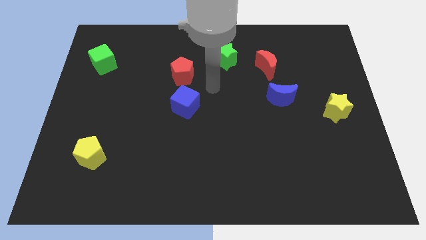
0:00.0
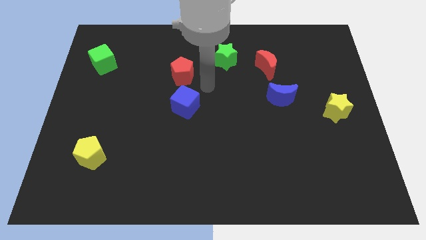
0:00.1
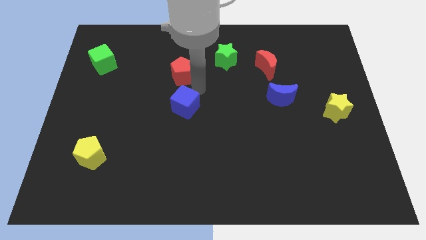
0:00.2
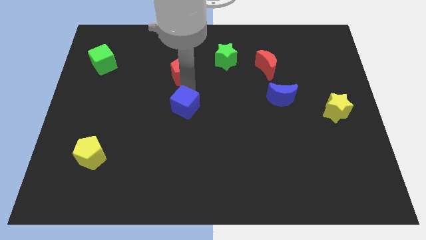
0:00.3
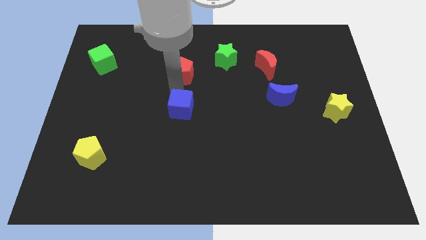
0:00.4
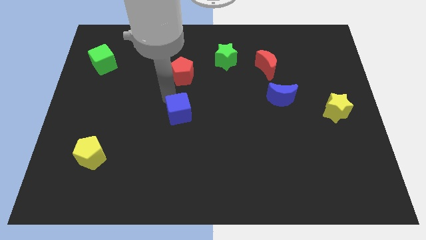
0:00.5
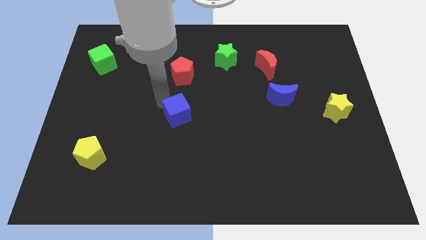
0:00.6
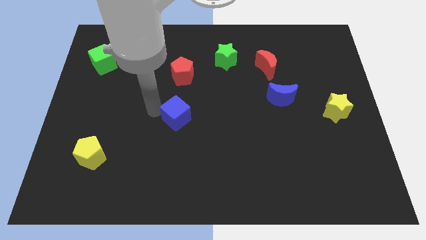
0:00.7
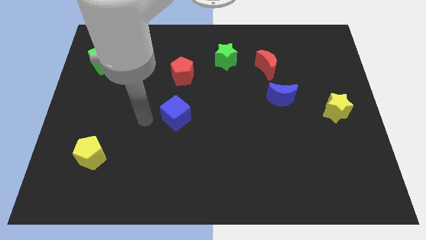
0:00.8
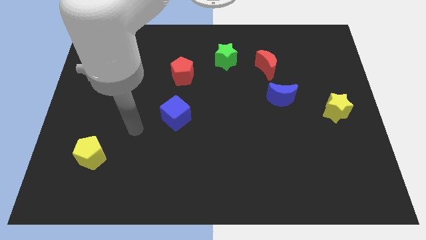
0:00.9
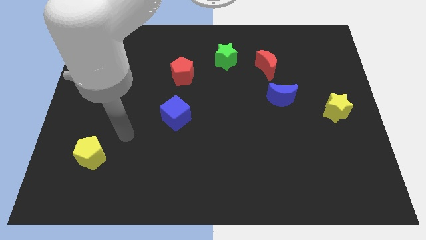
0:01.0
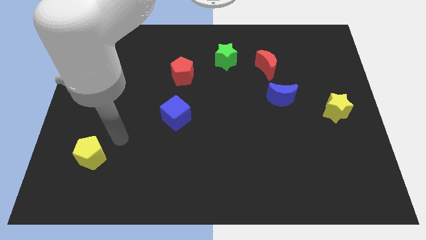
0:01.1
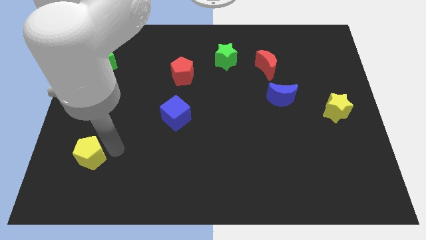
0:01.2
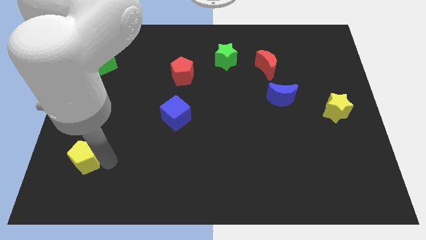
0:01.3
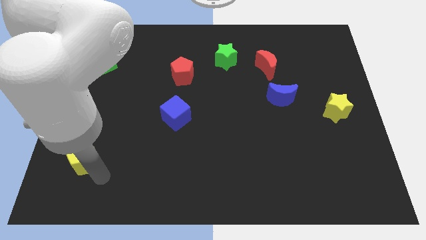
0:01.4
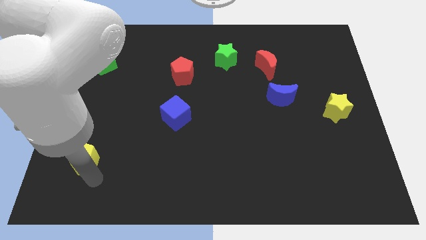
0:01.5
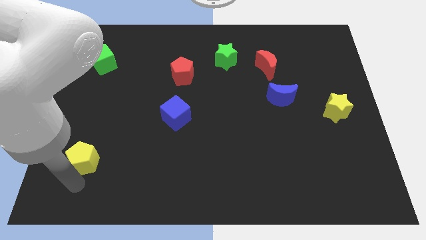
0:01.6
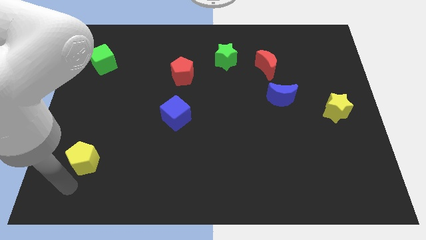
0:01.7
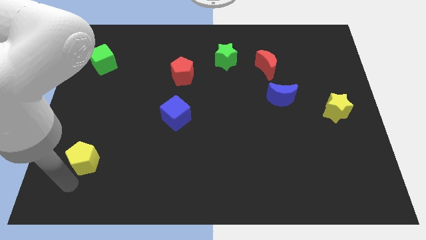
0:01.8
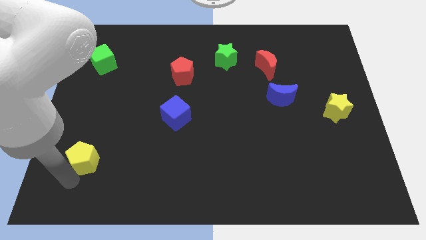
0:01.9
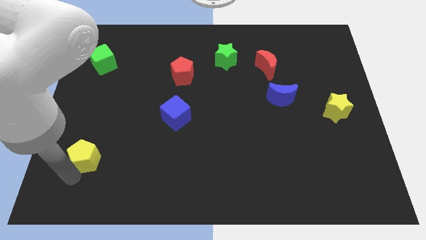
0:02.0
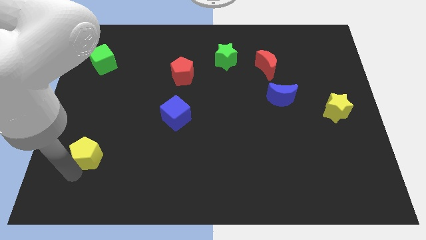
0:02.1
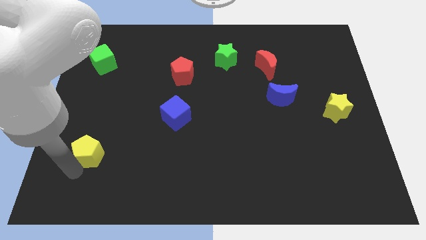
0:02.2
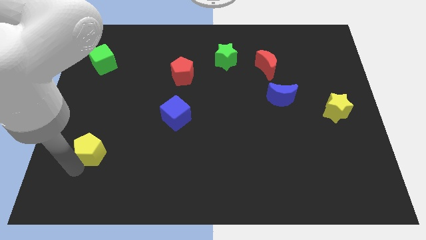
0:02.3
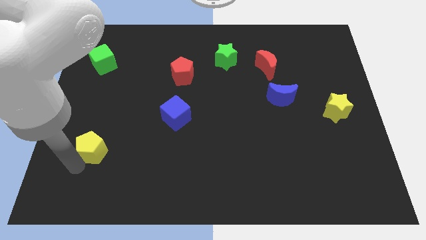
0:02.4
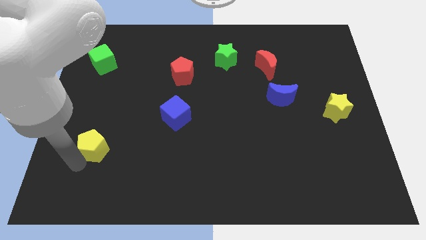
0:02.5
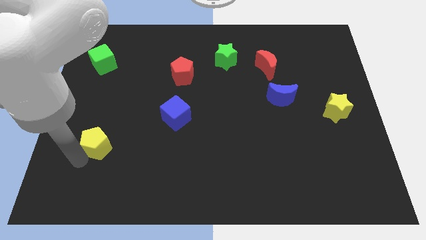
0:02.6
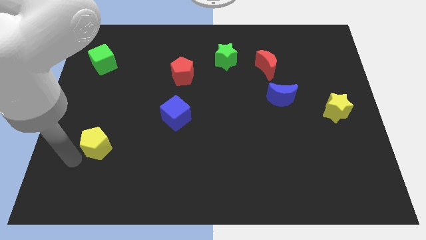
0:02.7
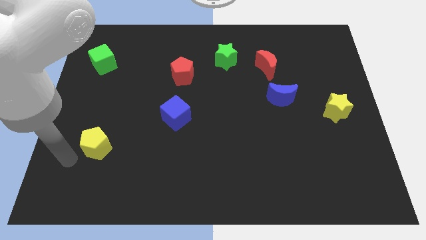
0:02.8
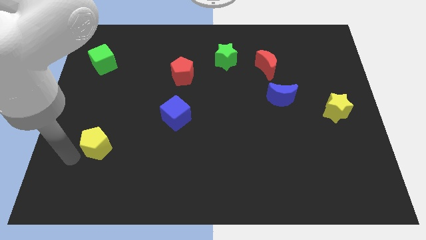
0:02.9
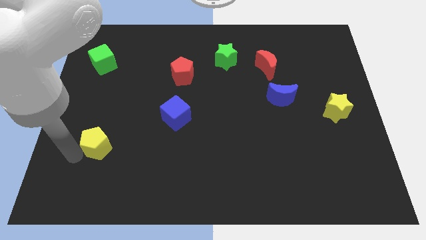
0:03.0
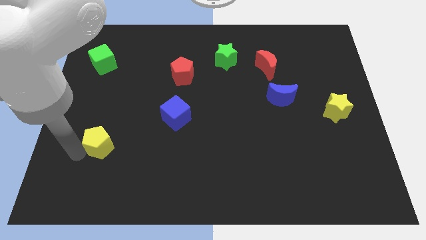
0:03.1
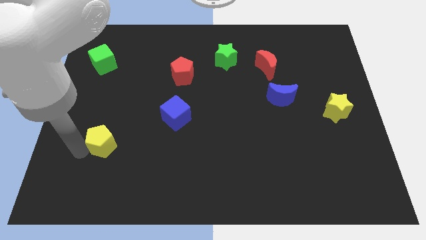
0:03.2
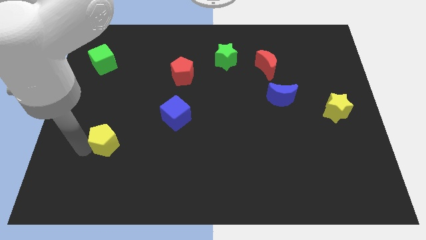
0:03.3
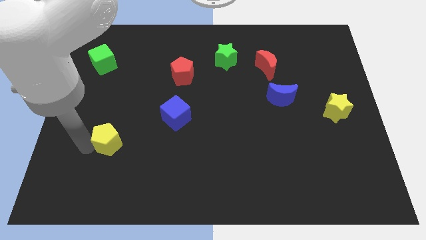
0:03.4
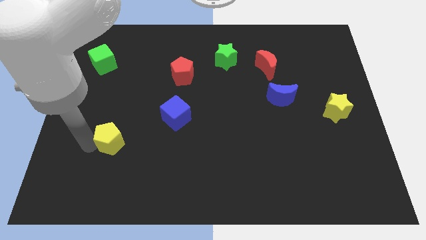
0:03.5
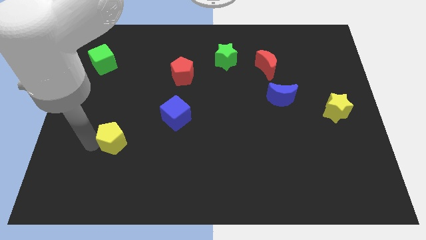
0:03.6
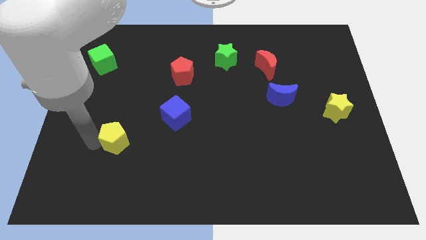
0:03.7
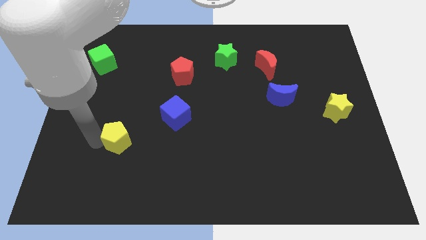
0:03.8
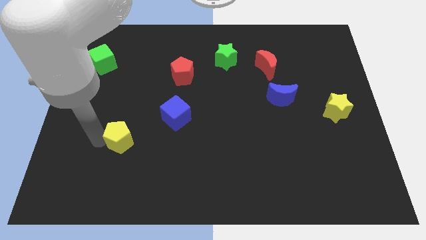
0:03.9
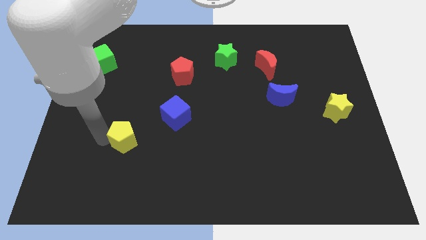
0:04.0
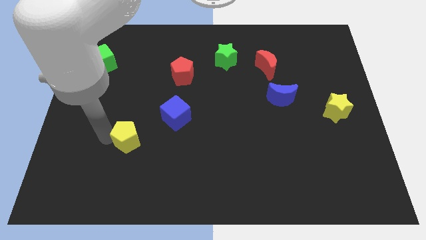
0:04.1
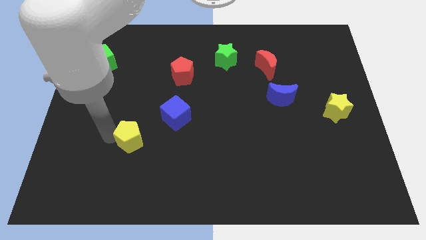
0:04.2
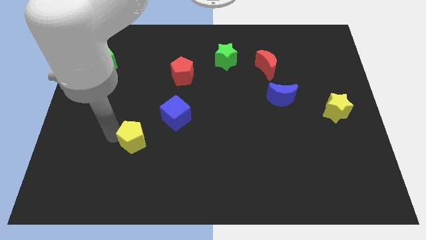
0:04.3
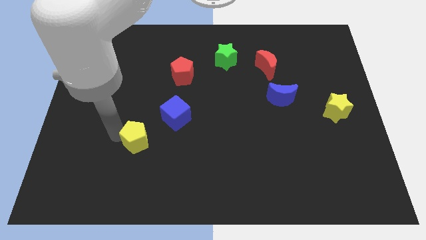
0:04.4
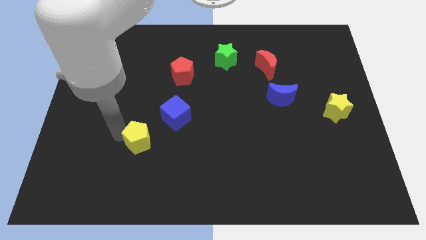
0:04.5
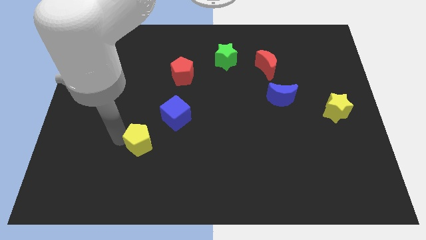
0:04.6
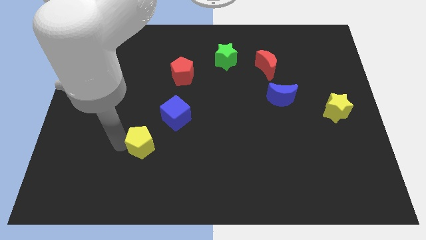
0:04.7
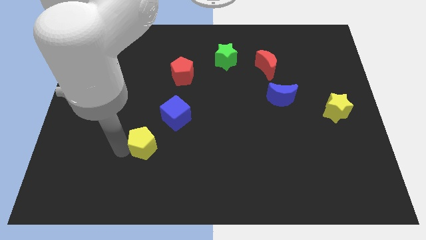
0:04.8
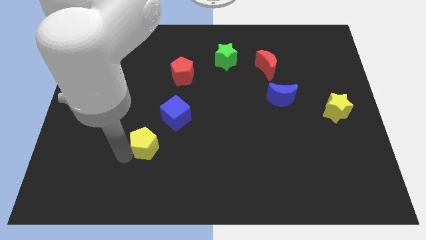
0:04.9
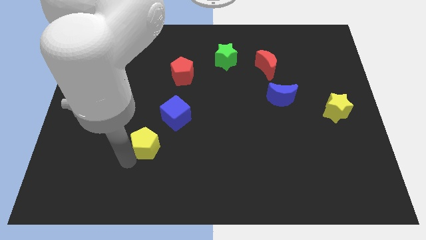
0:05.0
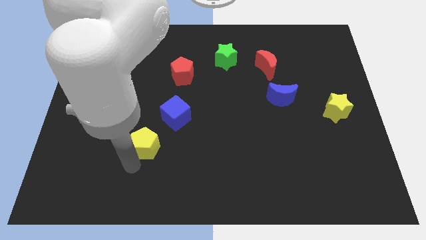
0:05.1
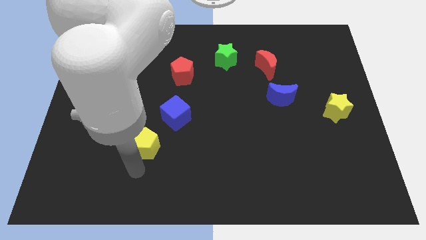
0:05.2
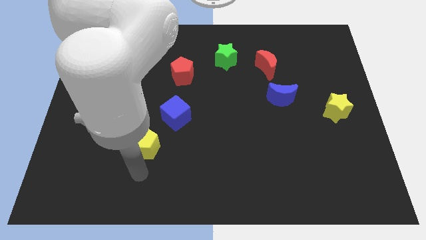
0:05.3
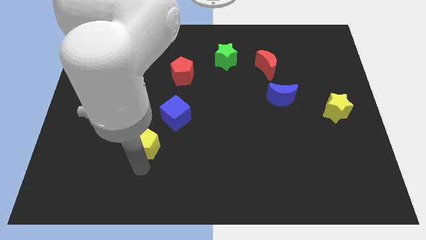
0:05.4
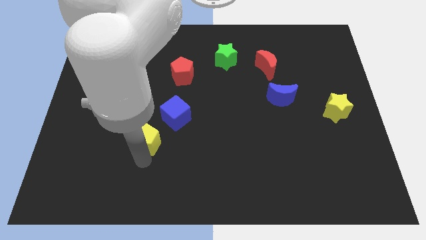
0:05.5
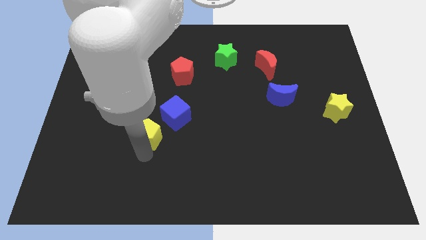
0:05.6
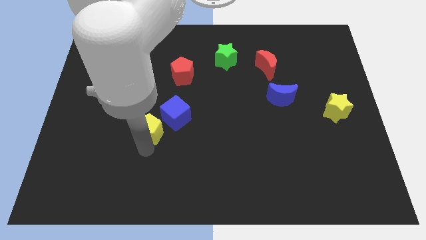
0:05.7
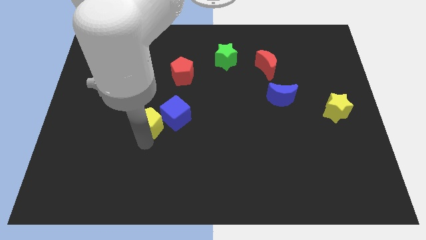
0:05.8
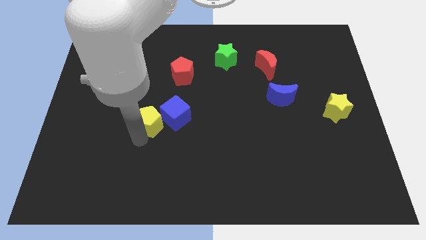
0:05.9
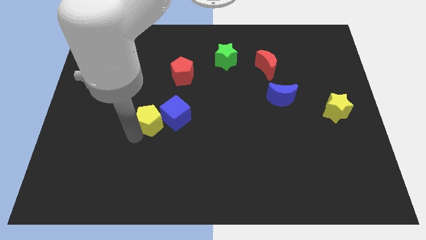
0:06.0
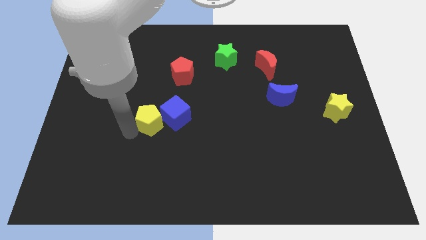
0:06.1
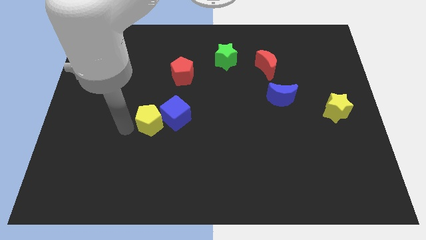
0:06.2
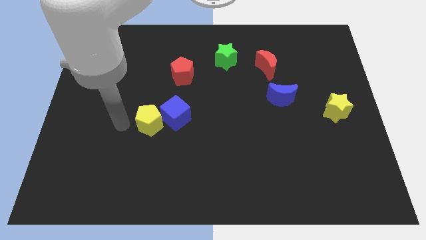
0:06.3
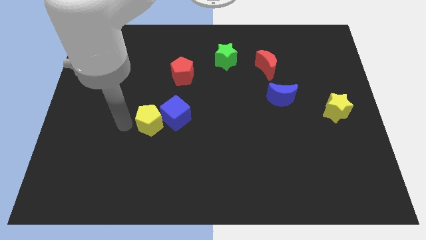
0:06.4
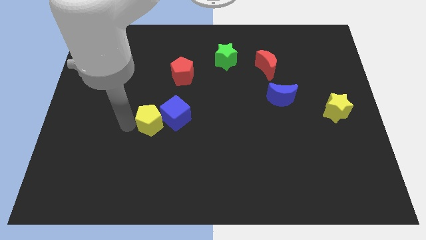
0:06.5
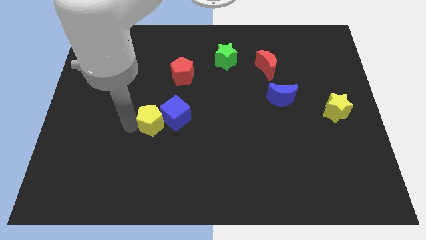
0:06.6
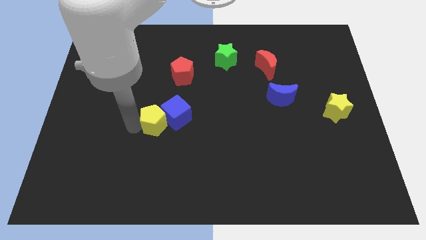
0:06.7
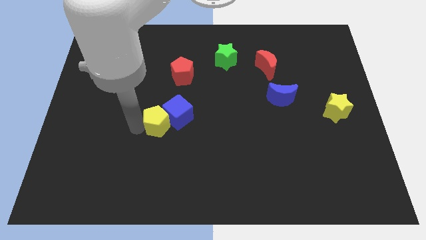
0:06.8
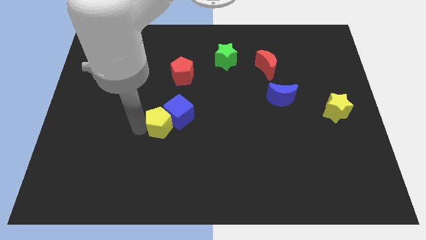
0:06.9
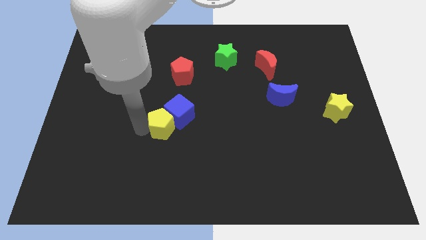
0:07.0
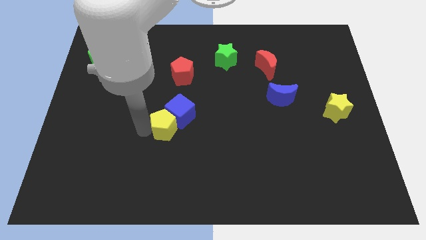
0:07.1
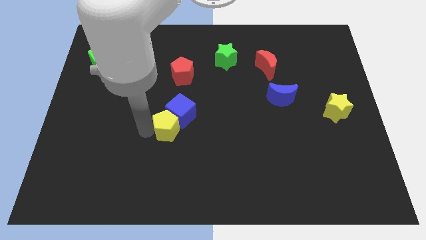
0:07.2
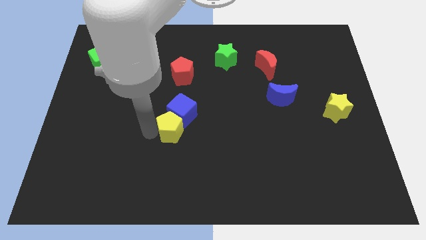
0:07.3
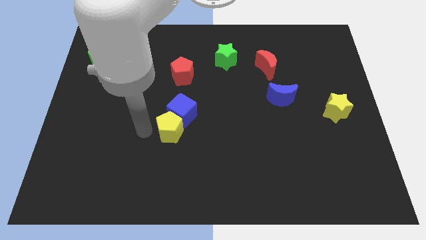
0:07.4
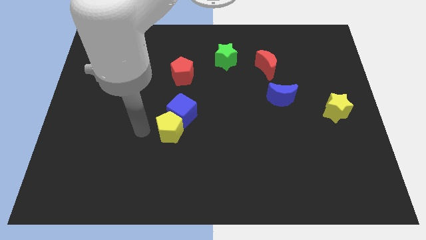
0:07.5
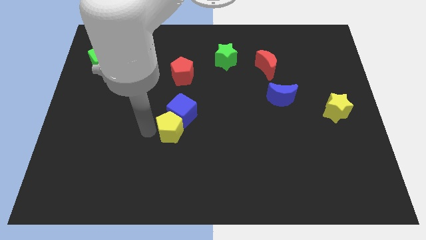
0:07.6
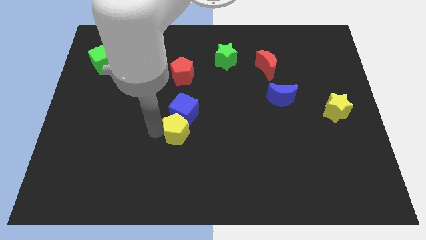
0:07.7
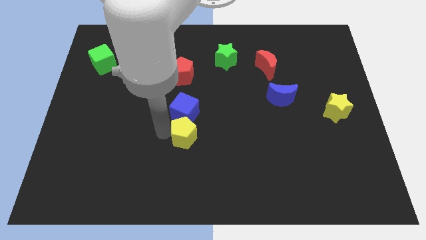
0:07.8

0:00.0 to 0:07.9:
put the yellow pentagon to the bottom right of the blue cube

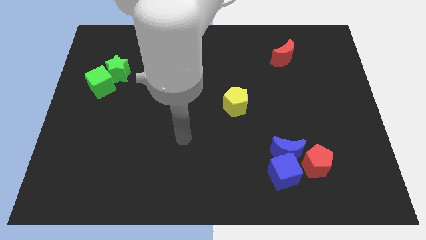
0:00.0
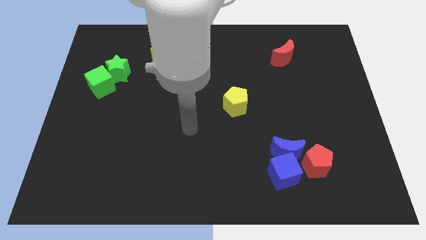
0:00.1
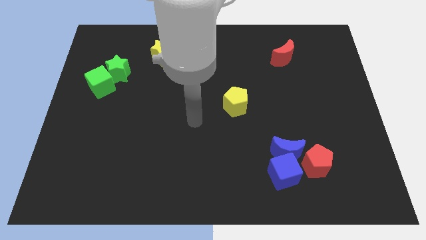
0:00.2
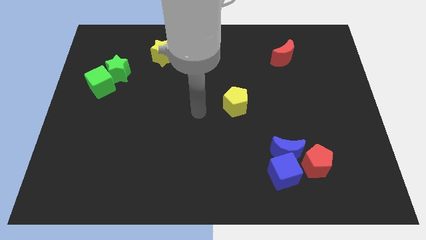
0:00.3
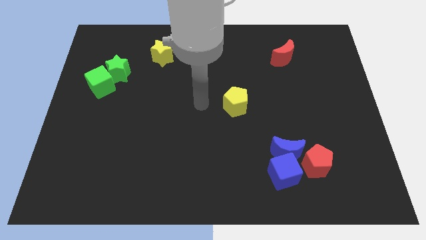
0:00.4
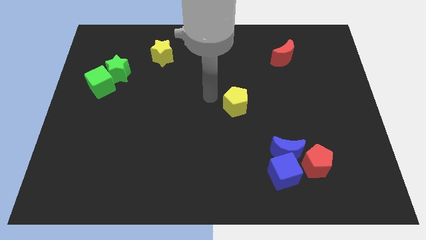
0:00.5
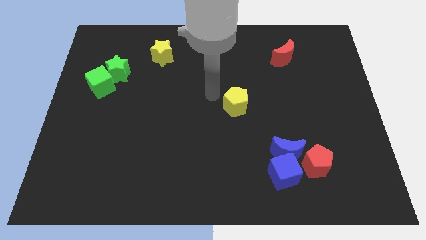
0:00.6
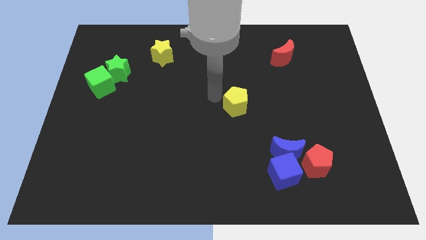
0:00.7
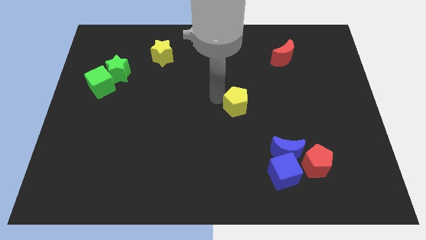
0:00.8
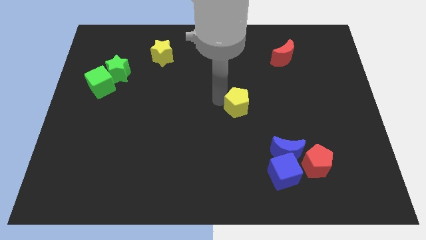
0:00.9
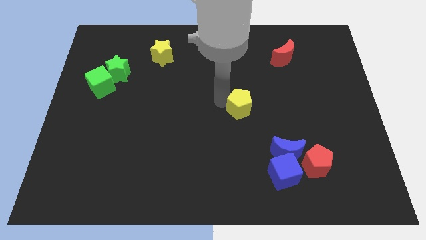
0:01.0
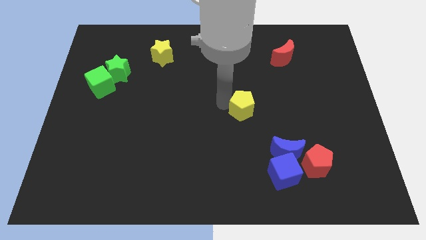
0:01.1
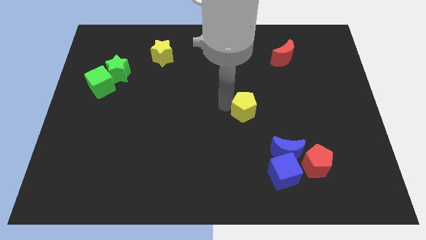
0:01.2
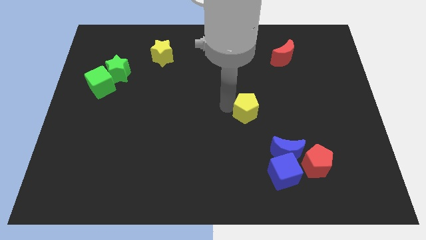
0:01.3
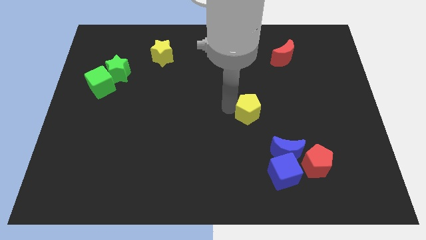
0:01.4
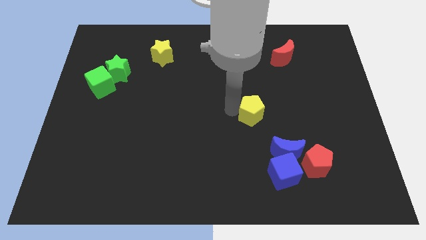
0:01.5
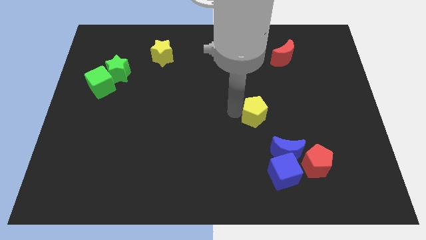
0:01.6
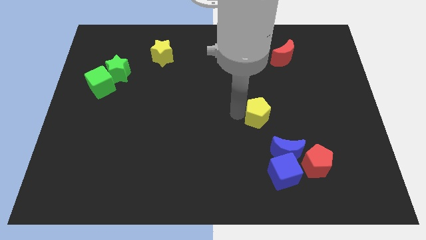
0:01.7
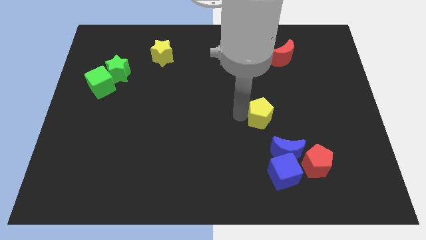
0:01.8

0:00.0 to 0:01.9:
push the yellow pentagon to the top of the blue cube
